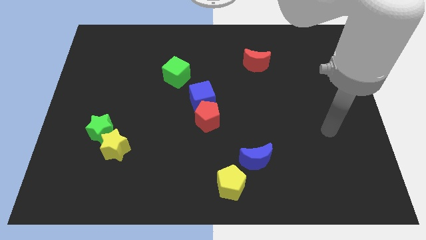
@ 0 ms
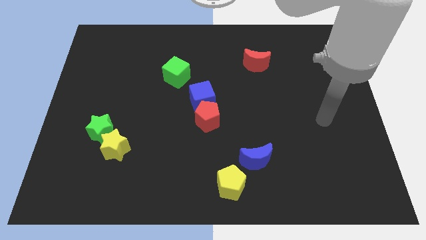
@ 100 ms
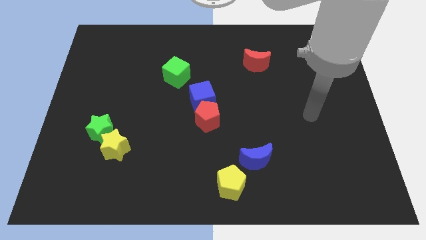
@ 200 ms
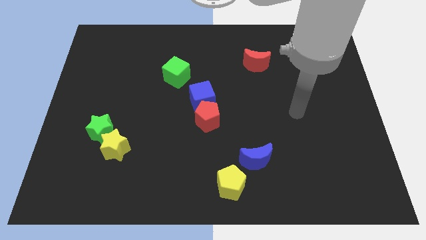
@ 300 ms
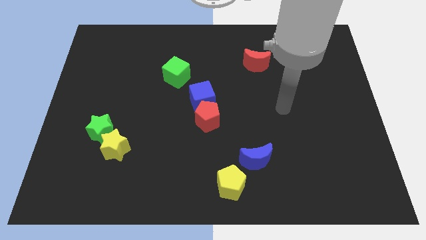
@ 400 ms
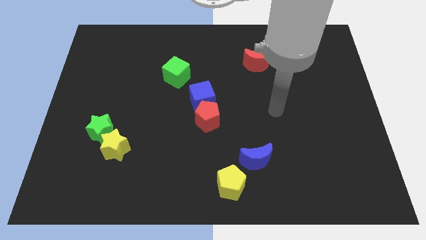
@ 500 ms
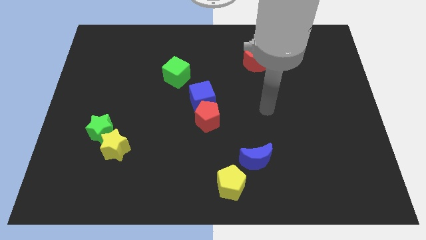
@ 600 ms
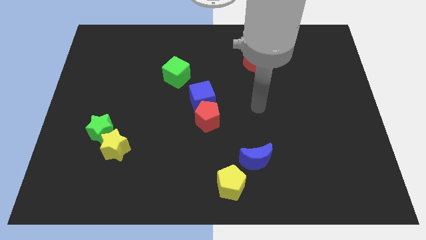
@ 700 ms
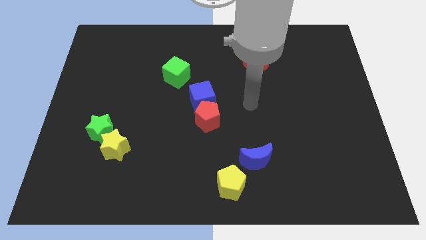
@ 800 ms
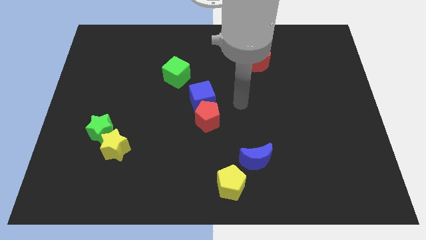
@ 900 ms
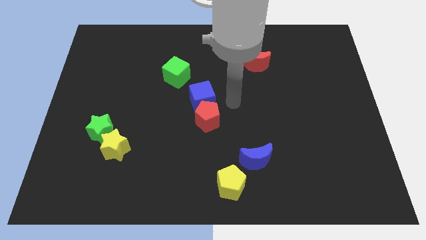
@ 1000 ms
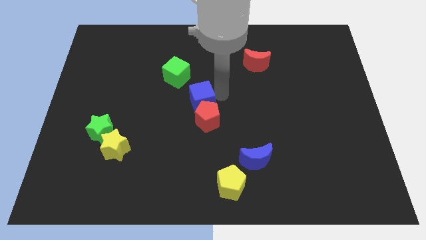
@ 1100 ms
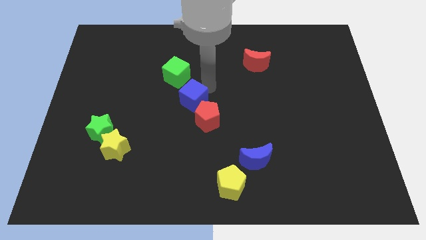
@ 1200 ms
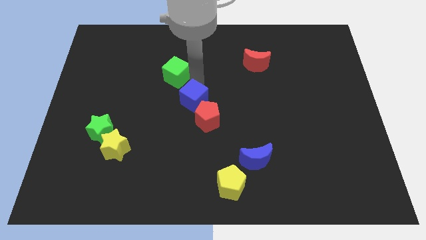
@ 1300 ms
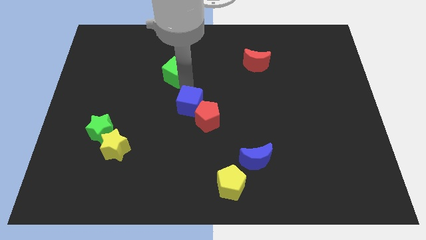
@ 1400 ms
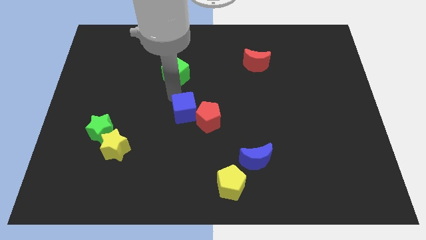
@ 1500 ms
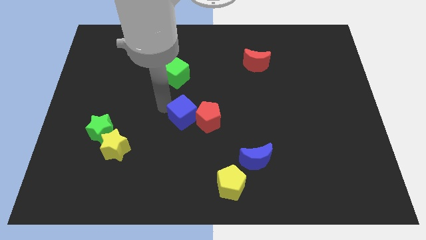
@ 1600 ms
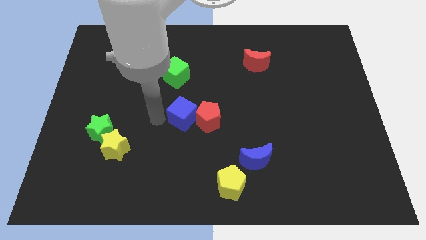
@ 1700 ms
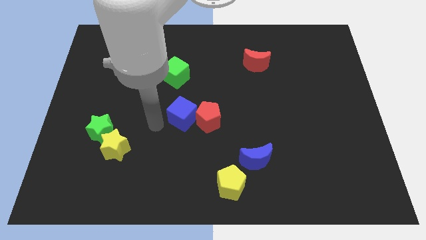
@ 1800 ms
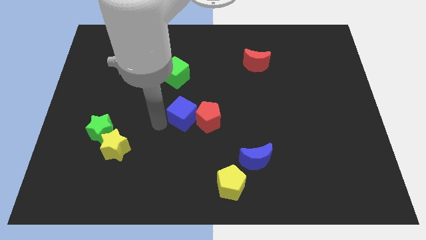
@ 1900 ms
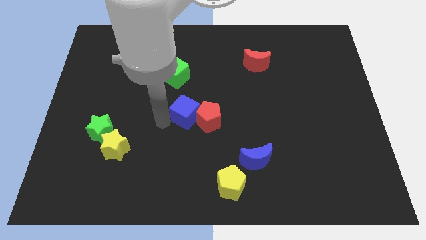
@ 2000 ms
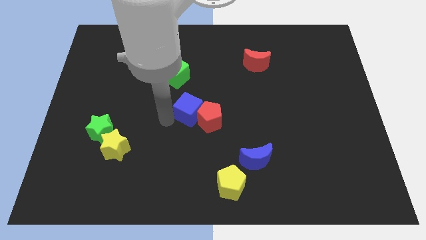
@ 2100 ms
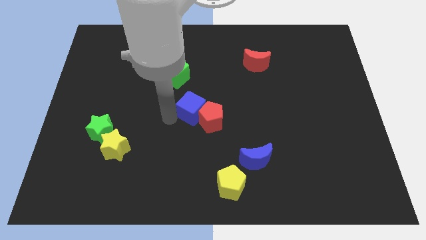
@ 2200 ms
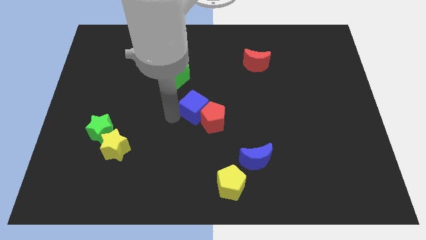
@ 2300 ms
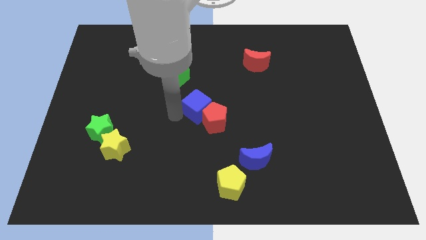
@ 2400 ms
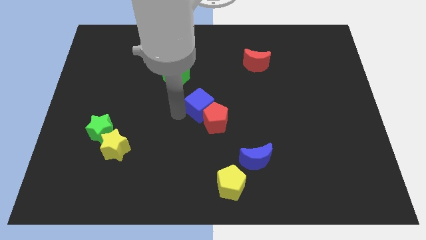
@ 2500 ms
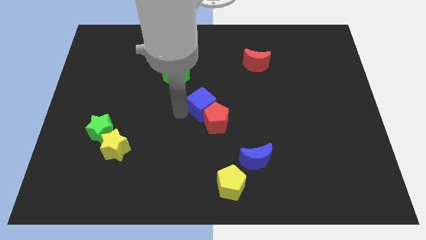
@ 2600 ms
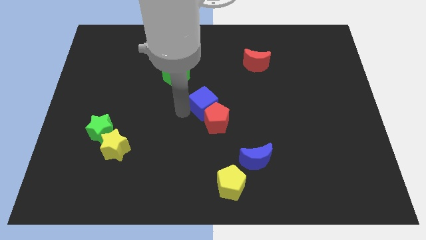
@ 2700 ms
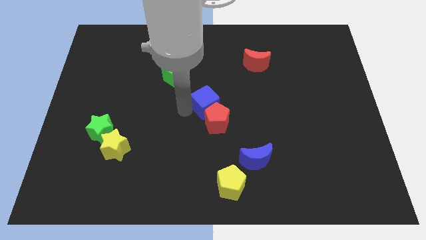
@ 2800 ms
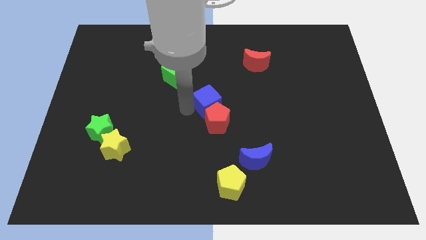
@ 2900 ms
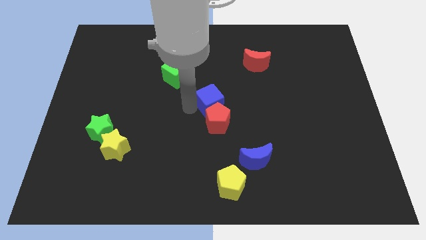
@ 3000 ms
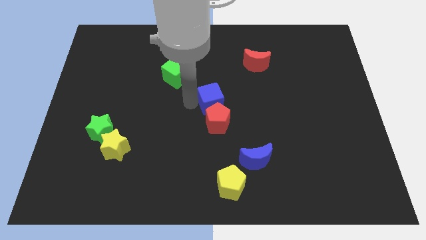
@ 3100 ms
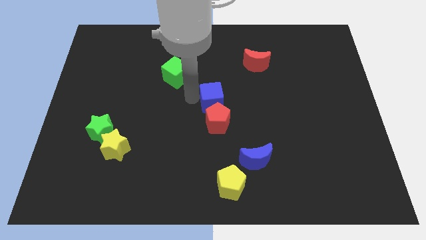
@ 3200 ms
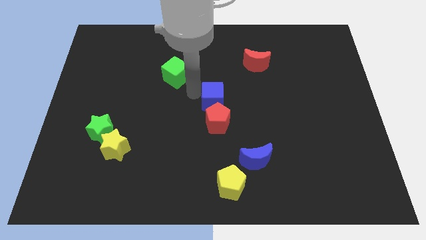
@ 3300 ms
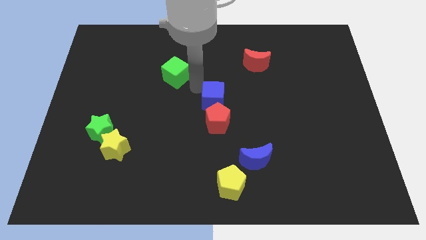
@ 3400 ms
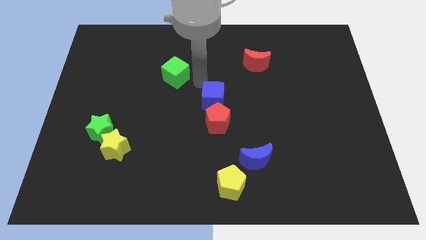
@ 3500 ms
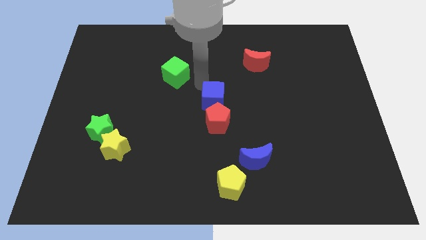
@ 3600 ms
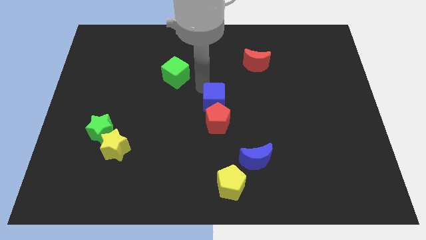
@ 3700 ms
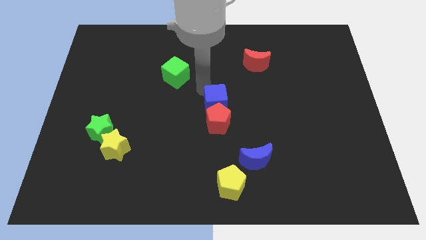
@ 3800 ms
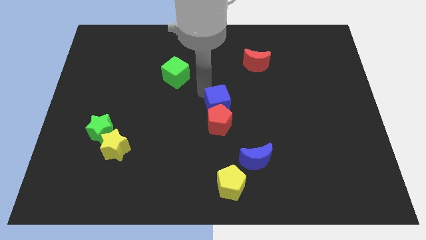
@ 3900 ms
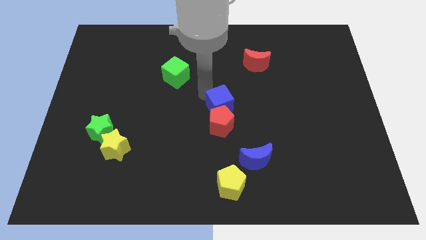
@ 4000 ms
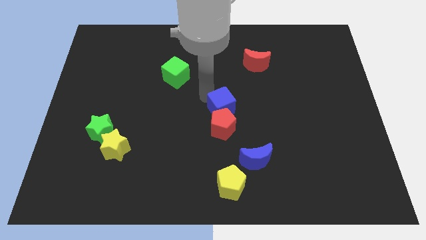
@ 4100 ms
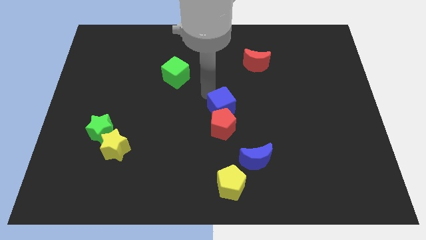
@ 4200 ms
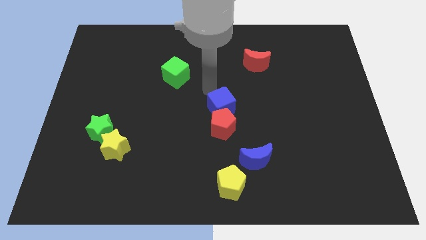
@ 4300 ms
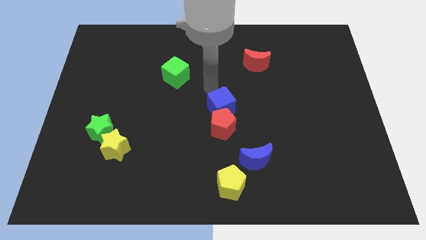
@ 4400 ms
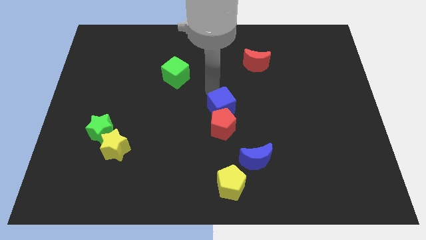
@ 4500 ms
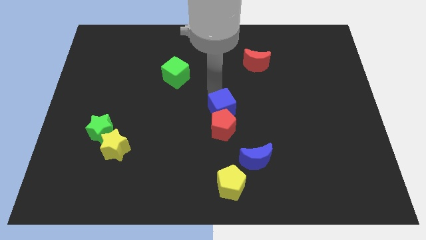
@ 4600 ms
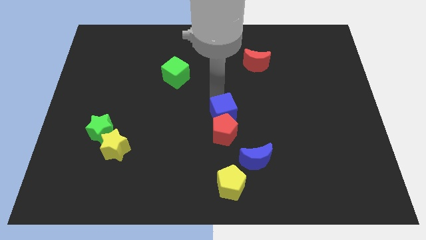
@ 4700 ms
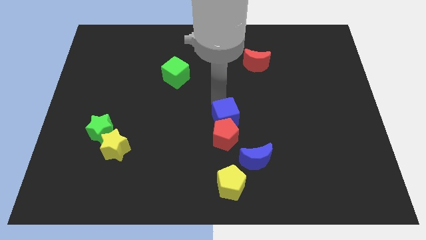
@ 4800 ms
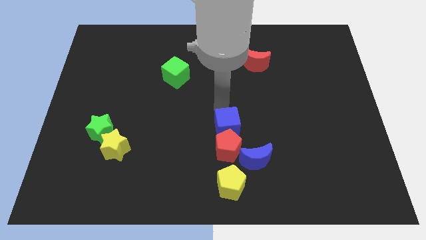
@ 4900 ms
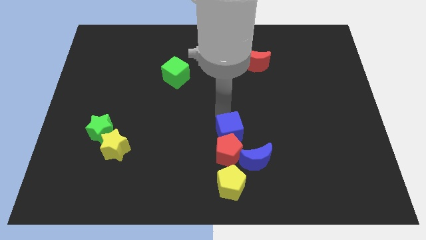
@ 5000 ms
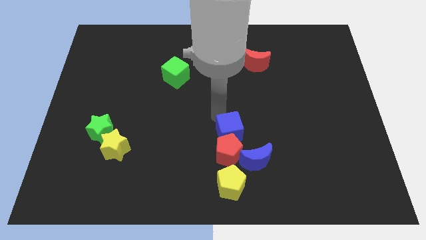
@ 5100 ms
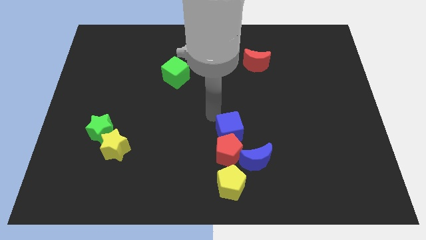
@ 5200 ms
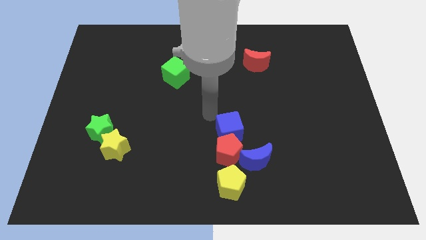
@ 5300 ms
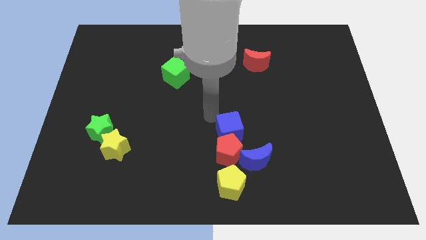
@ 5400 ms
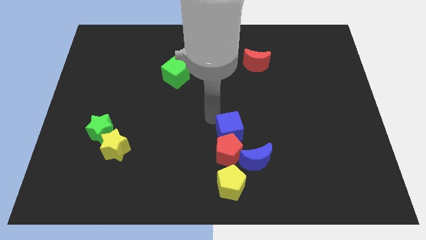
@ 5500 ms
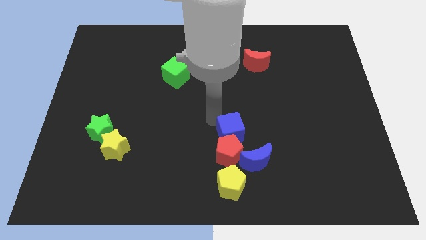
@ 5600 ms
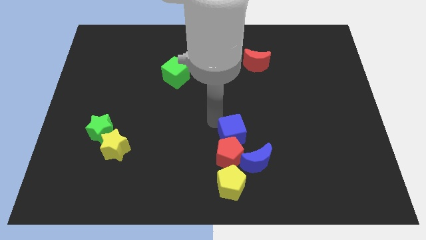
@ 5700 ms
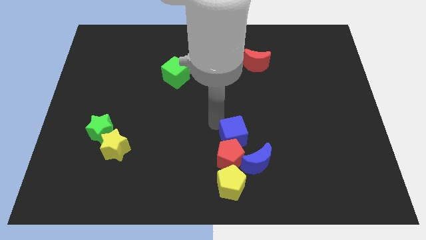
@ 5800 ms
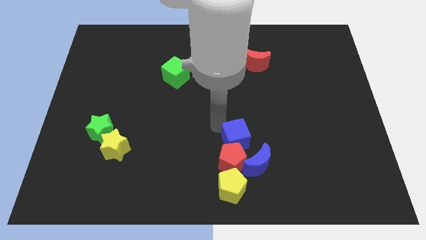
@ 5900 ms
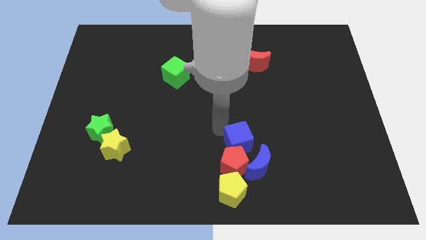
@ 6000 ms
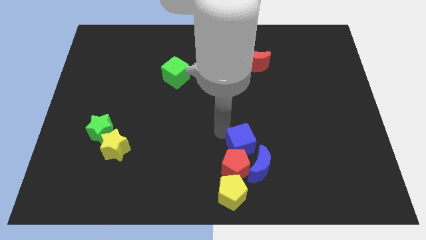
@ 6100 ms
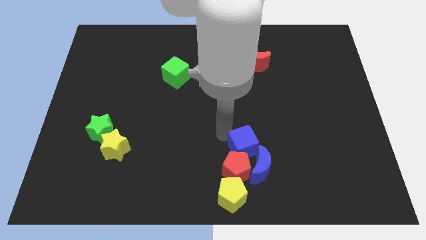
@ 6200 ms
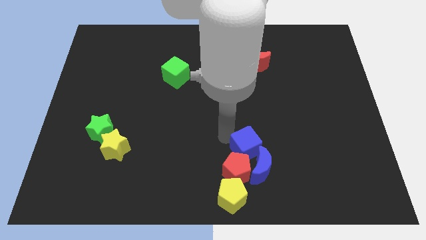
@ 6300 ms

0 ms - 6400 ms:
push the blue cube next to the blue moon

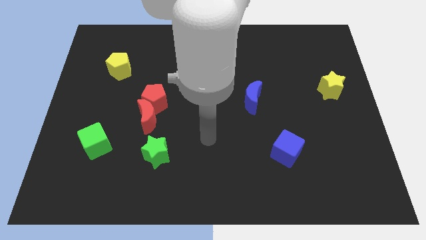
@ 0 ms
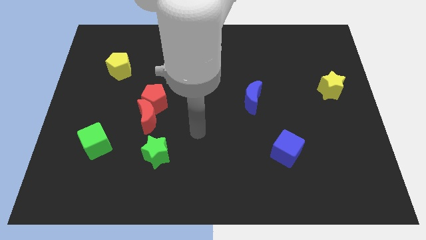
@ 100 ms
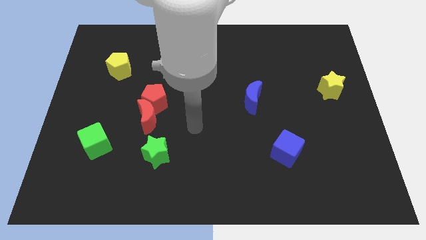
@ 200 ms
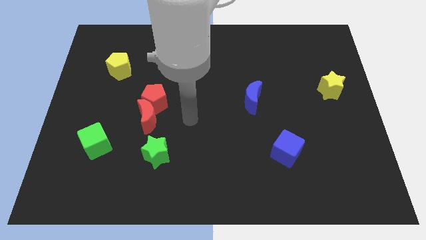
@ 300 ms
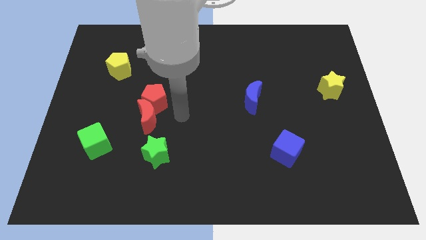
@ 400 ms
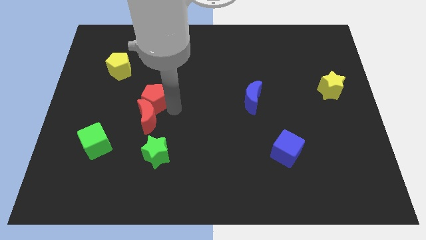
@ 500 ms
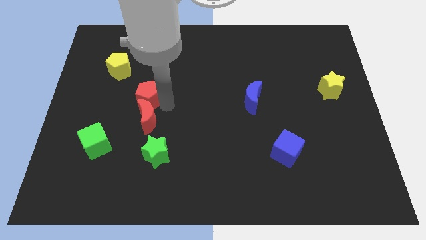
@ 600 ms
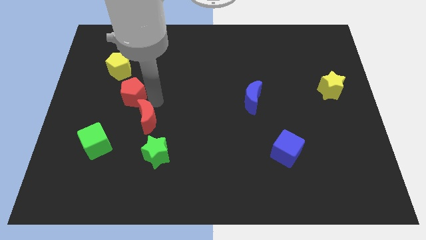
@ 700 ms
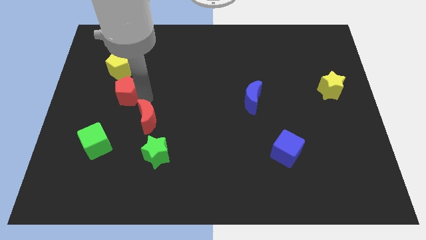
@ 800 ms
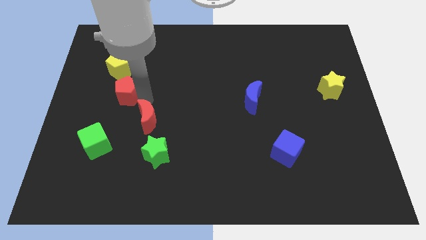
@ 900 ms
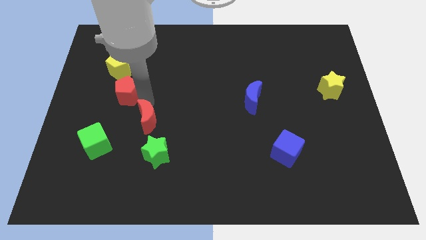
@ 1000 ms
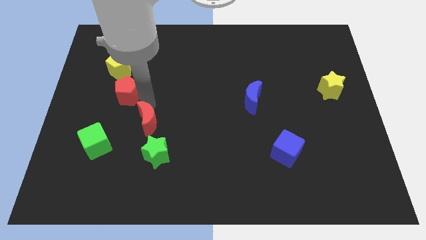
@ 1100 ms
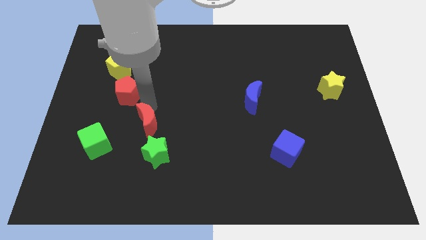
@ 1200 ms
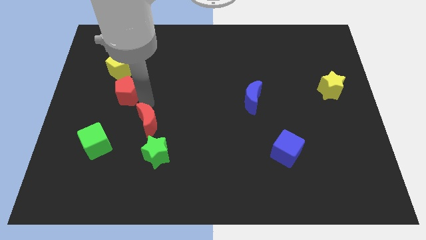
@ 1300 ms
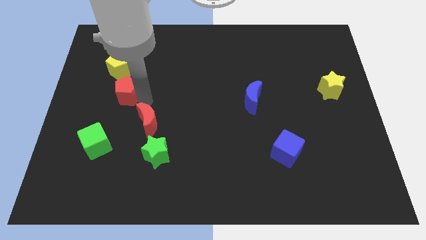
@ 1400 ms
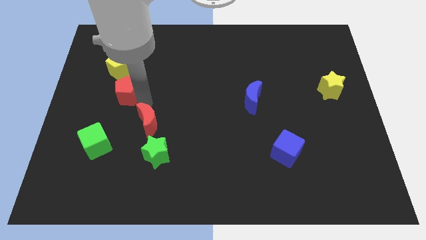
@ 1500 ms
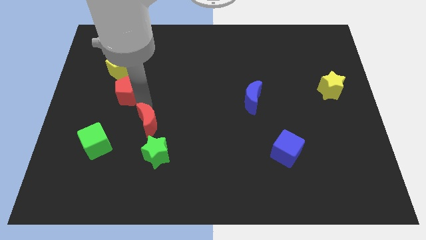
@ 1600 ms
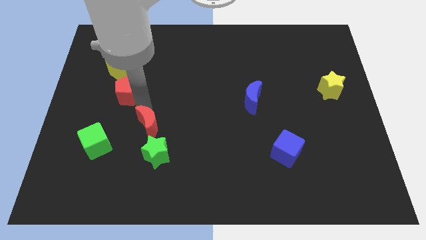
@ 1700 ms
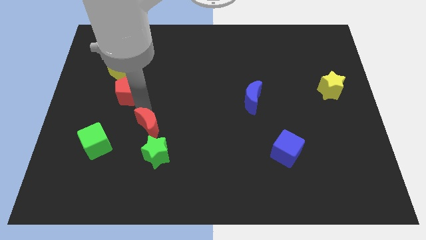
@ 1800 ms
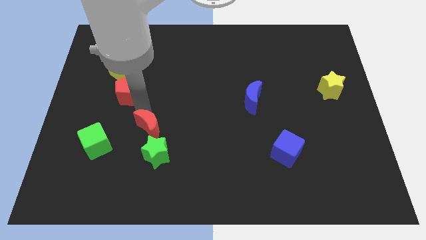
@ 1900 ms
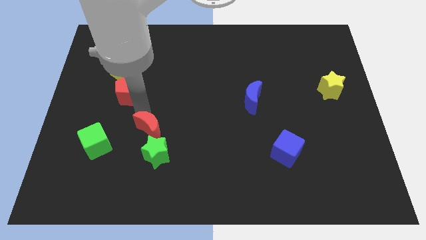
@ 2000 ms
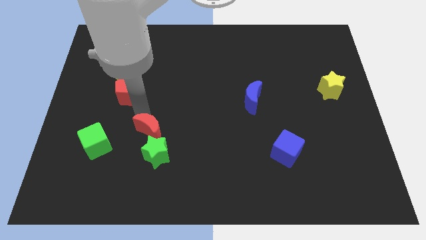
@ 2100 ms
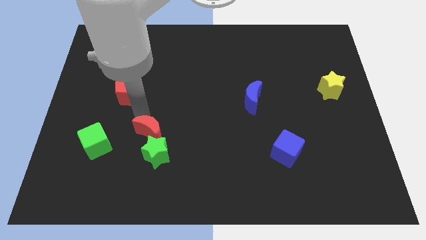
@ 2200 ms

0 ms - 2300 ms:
move the red moon to the green star
